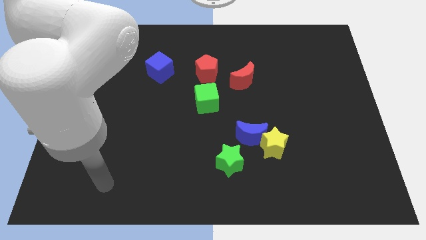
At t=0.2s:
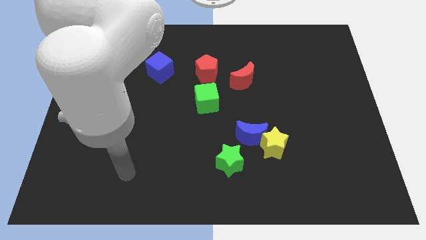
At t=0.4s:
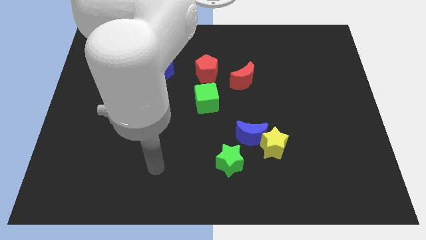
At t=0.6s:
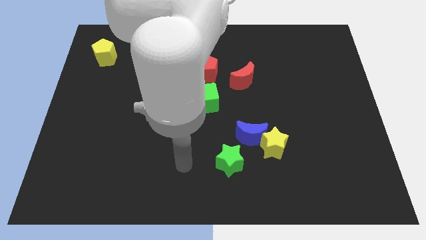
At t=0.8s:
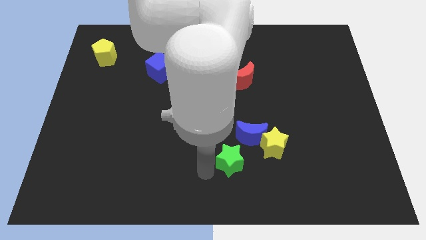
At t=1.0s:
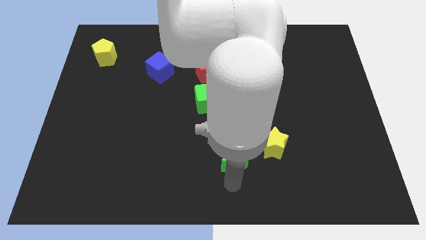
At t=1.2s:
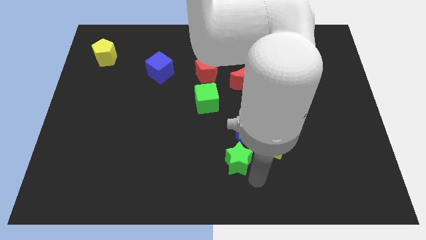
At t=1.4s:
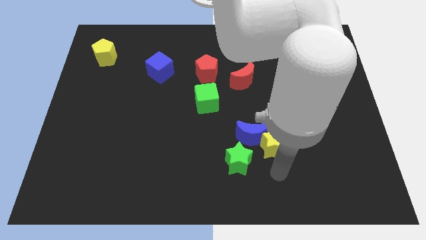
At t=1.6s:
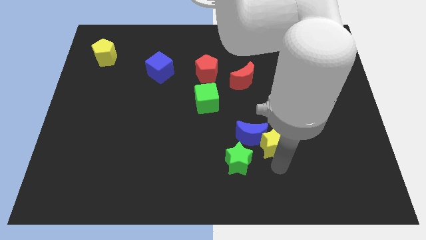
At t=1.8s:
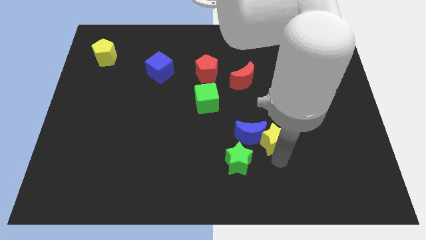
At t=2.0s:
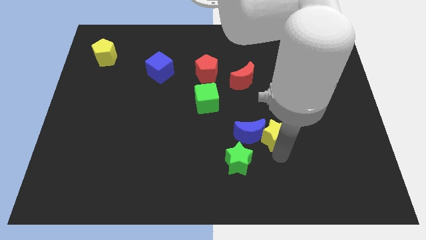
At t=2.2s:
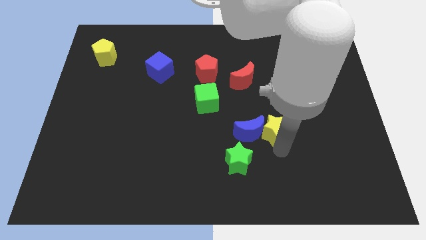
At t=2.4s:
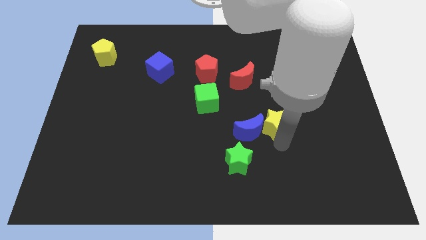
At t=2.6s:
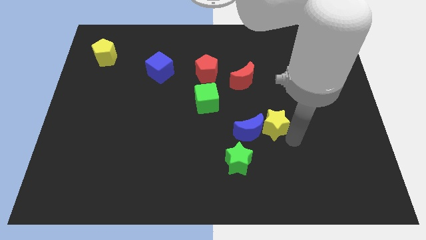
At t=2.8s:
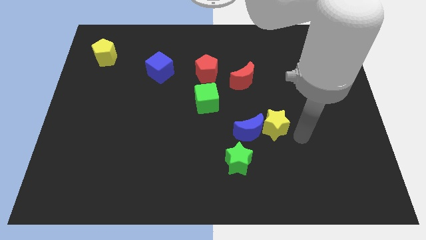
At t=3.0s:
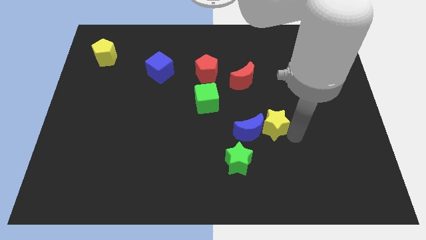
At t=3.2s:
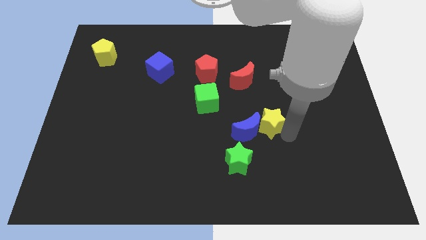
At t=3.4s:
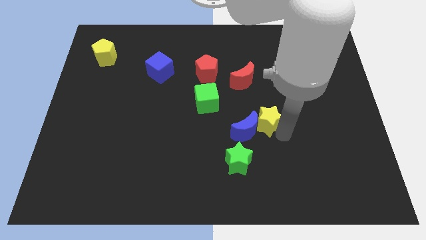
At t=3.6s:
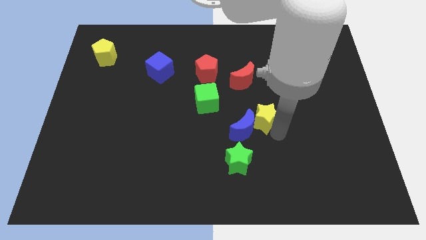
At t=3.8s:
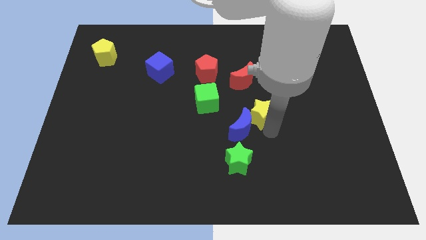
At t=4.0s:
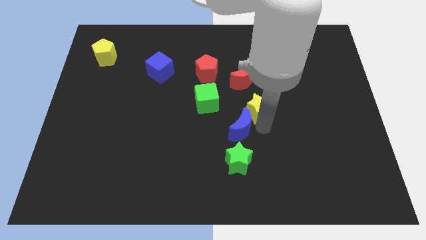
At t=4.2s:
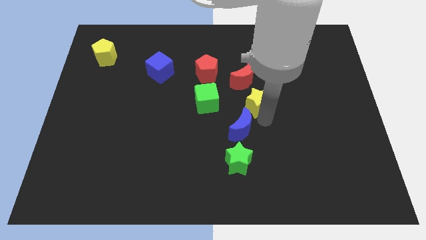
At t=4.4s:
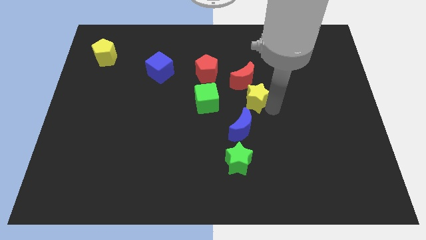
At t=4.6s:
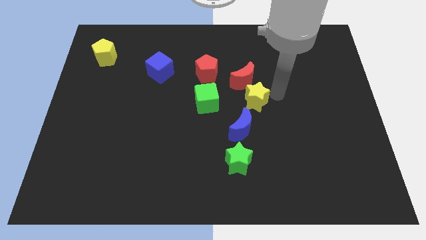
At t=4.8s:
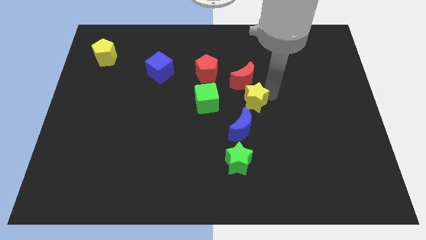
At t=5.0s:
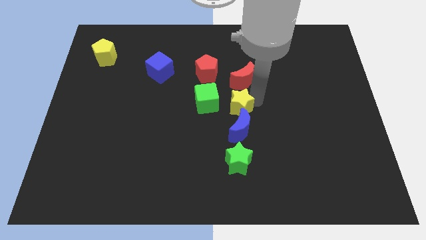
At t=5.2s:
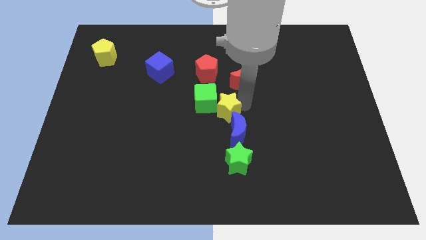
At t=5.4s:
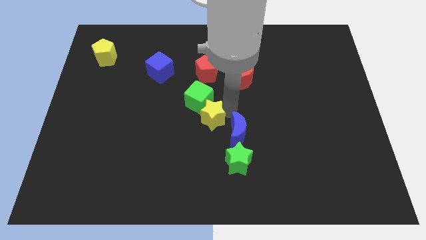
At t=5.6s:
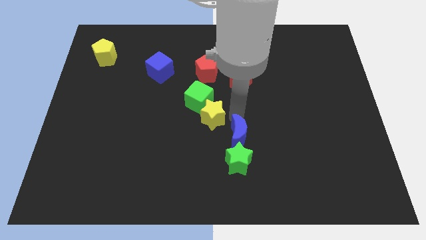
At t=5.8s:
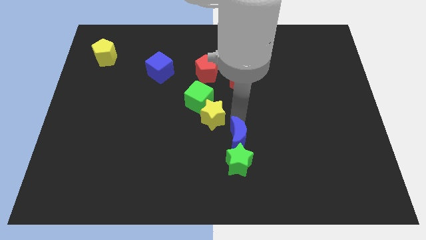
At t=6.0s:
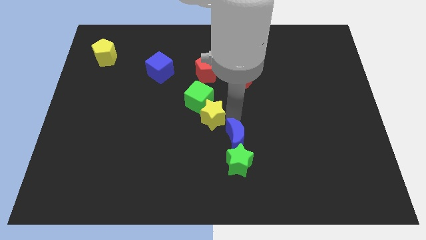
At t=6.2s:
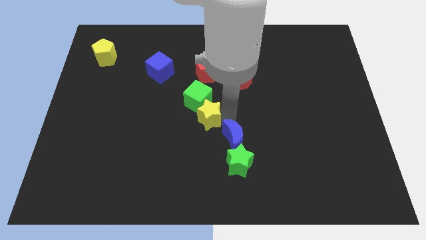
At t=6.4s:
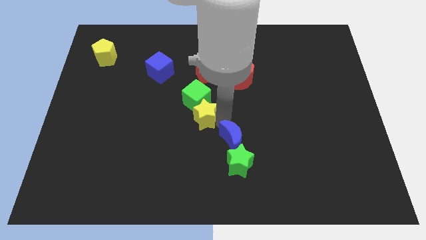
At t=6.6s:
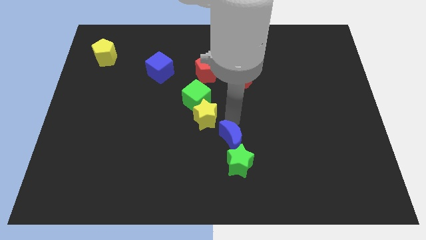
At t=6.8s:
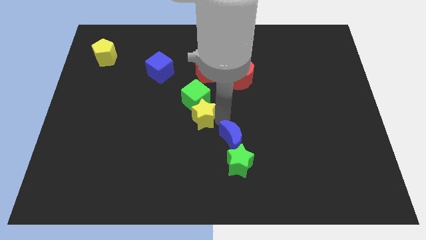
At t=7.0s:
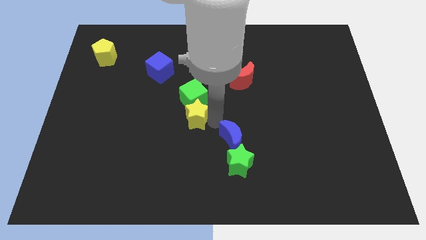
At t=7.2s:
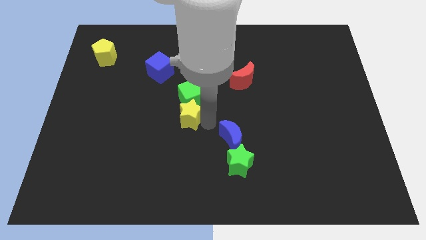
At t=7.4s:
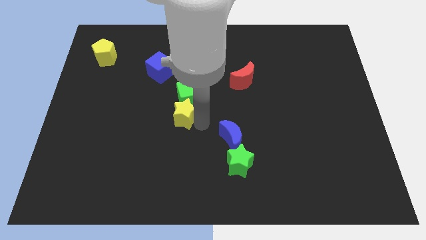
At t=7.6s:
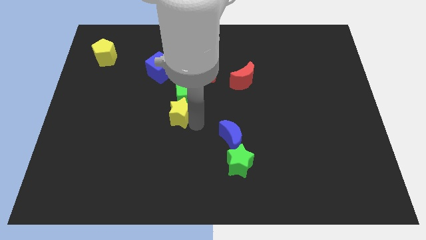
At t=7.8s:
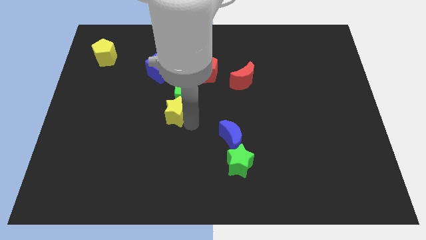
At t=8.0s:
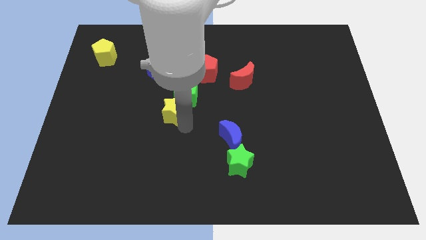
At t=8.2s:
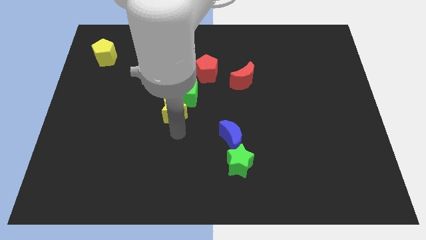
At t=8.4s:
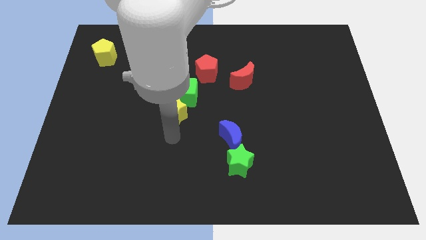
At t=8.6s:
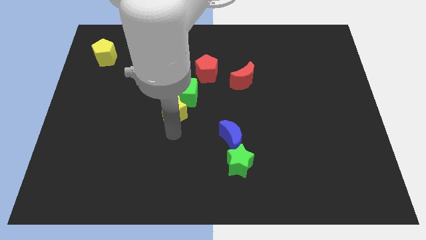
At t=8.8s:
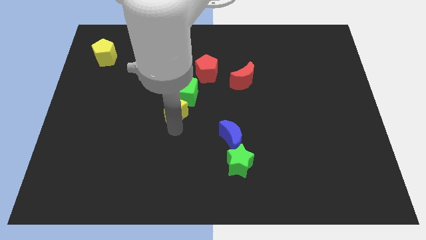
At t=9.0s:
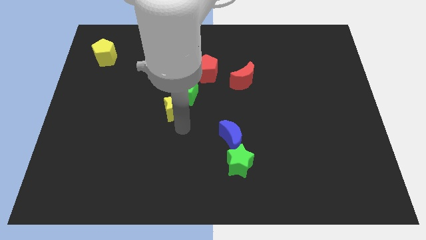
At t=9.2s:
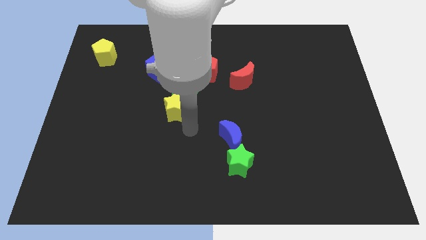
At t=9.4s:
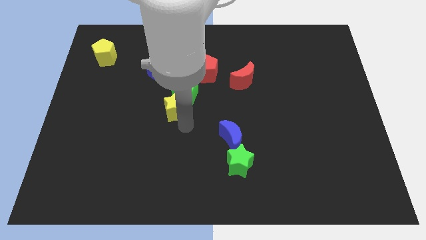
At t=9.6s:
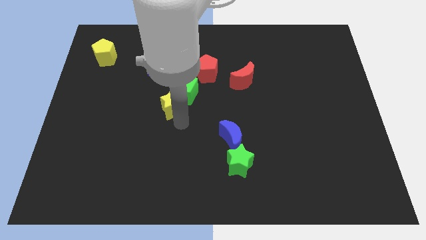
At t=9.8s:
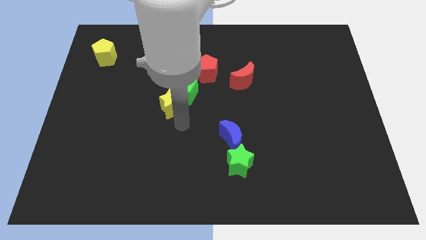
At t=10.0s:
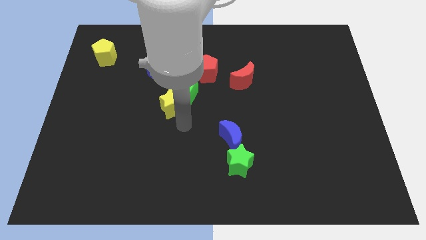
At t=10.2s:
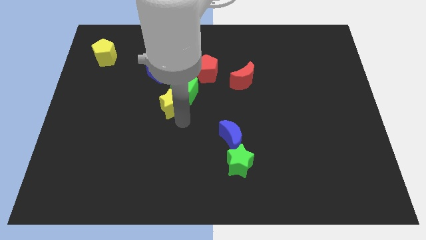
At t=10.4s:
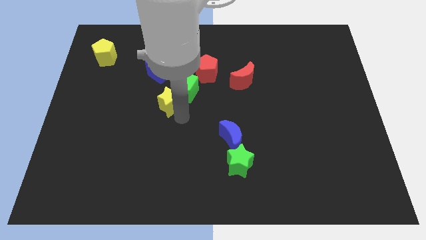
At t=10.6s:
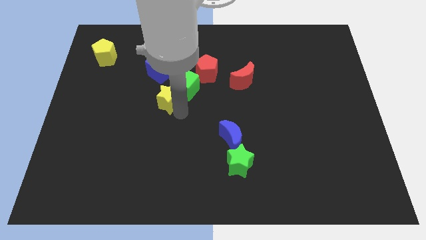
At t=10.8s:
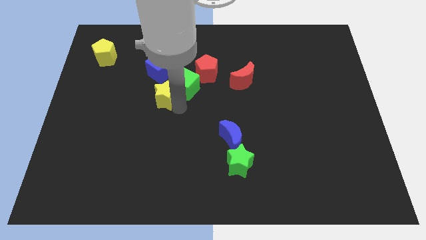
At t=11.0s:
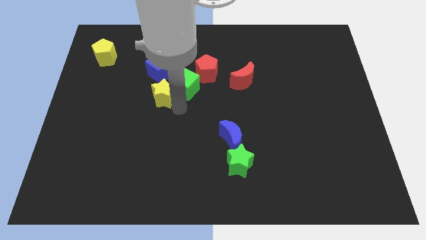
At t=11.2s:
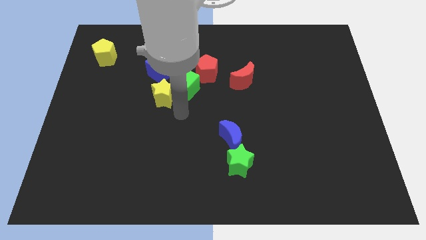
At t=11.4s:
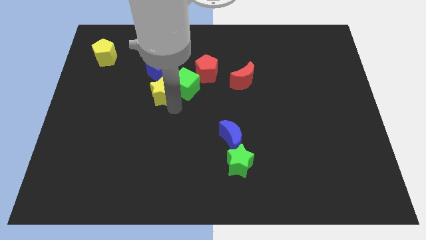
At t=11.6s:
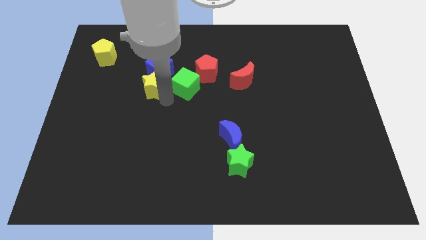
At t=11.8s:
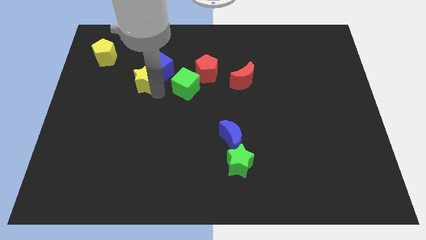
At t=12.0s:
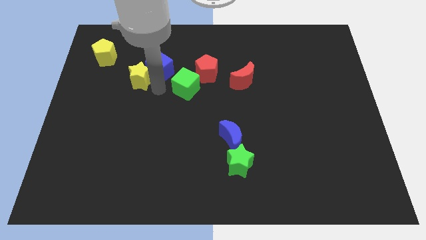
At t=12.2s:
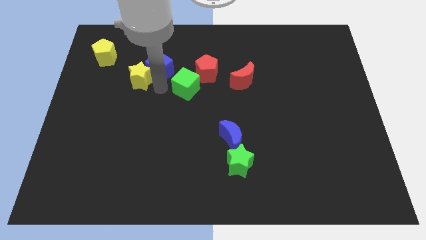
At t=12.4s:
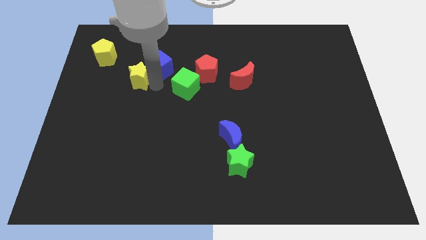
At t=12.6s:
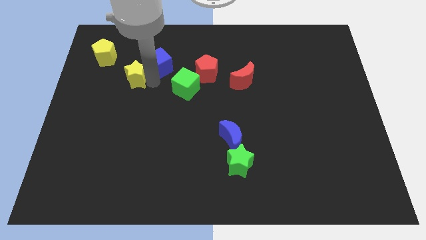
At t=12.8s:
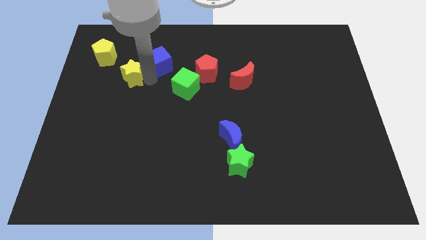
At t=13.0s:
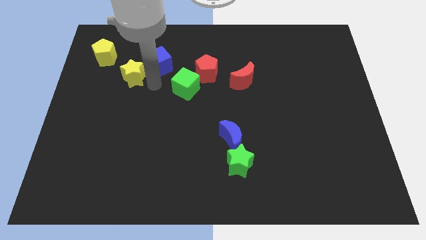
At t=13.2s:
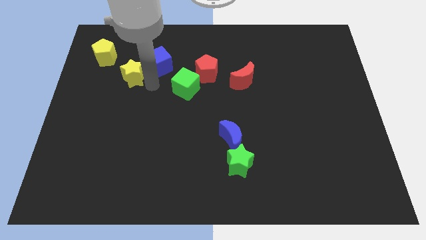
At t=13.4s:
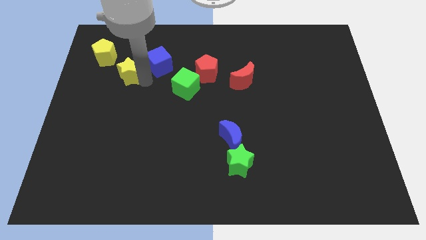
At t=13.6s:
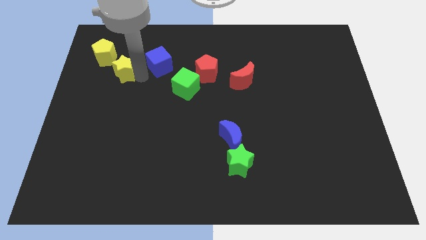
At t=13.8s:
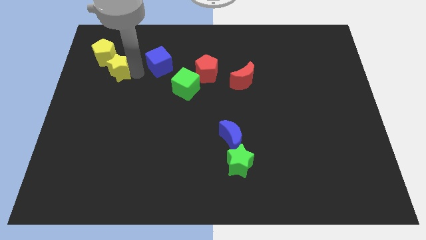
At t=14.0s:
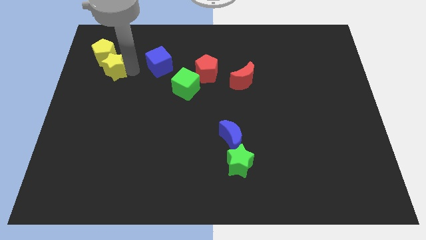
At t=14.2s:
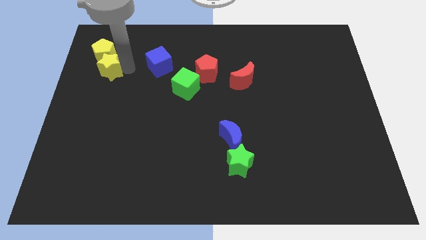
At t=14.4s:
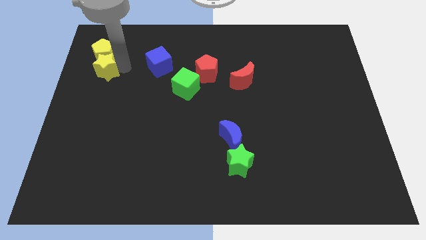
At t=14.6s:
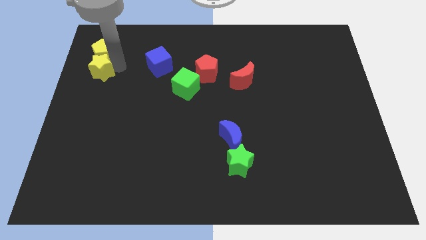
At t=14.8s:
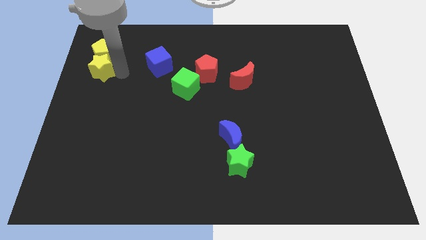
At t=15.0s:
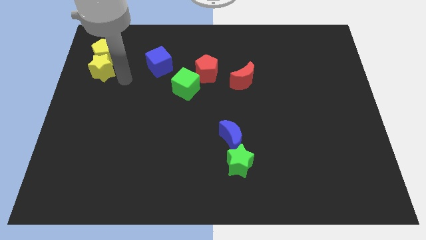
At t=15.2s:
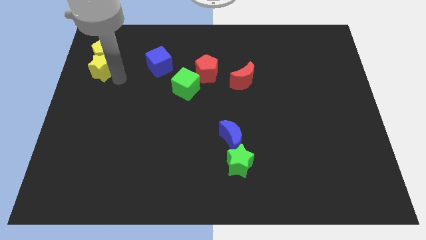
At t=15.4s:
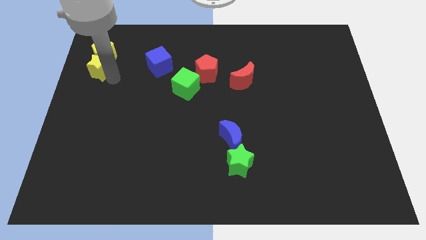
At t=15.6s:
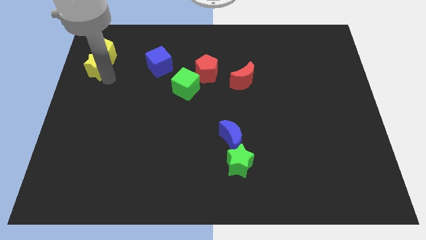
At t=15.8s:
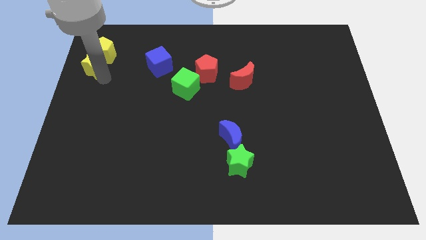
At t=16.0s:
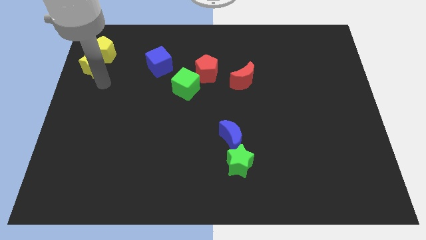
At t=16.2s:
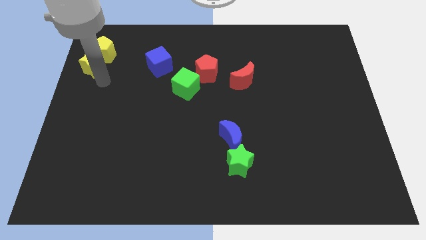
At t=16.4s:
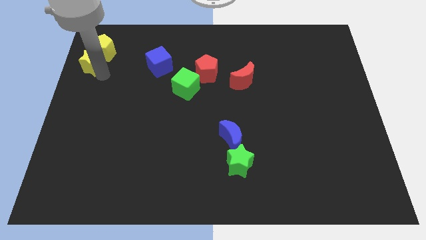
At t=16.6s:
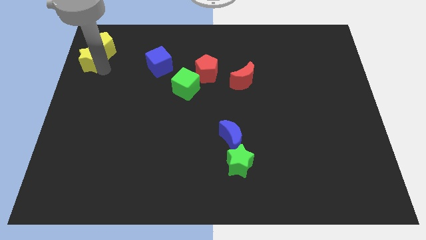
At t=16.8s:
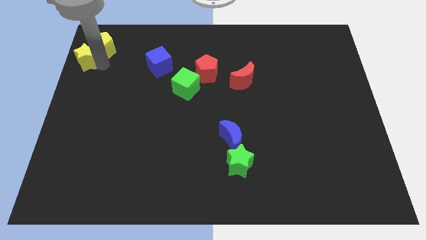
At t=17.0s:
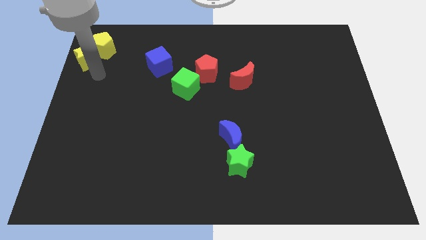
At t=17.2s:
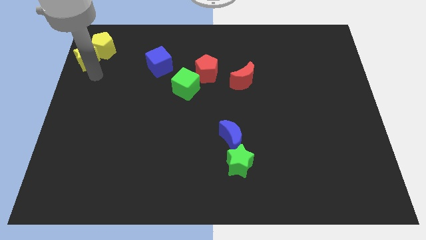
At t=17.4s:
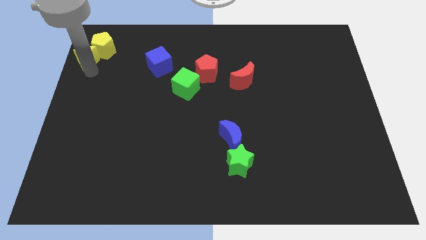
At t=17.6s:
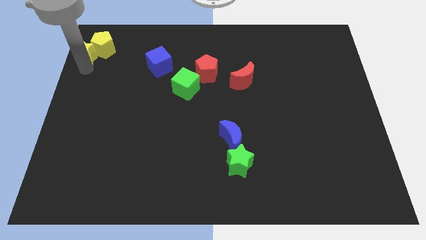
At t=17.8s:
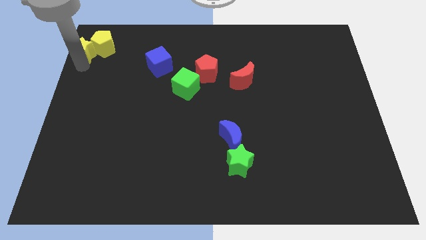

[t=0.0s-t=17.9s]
push the yellow star to the top left of the board
